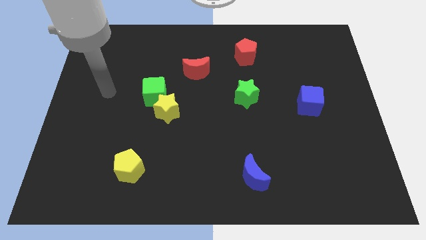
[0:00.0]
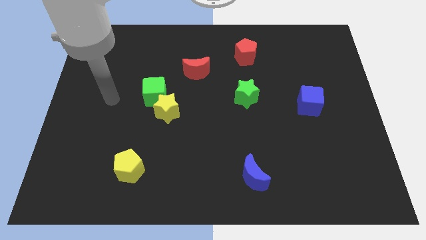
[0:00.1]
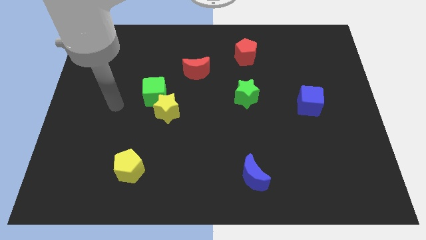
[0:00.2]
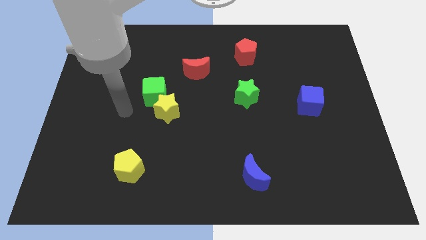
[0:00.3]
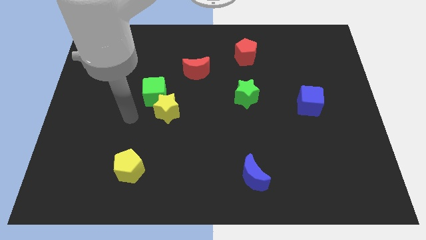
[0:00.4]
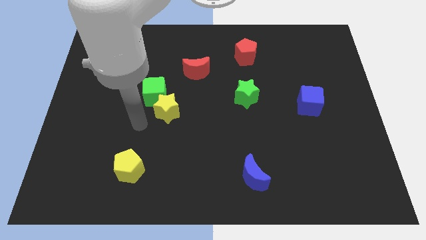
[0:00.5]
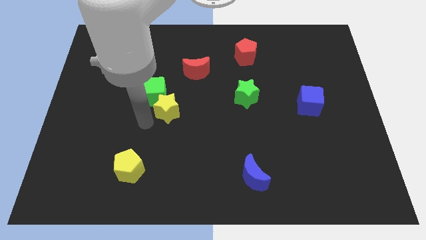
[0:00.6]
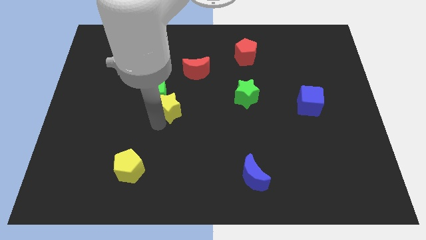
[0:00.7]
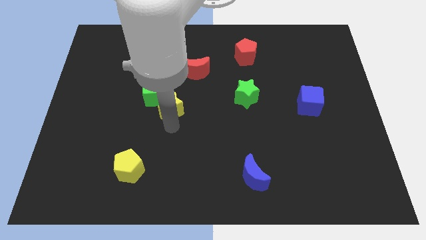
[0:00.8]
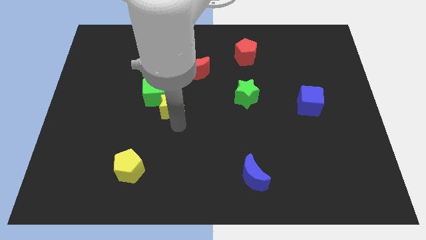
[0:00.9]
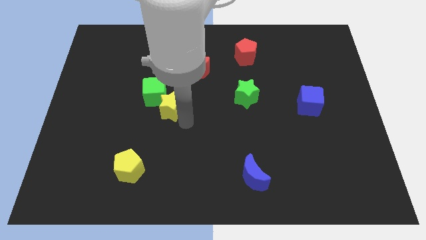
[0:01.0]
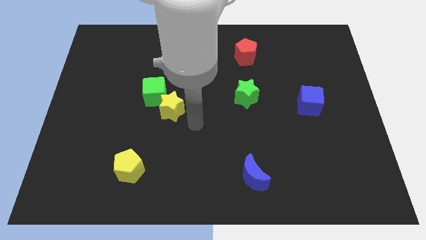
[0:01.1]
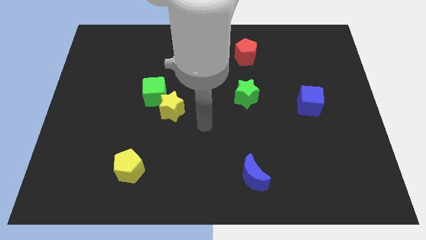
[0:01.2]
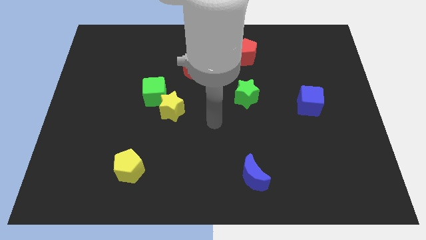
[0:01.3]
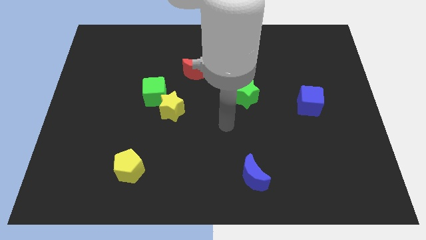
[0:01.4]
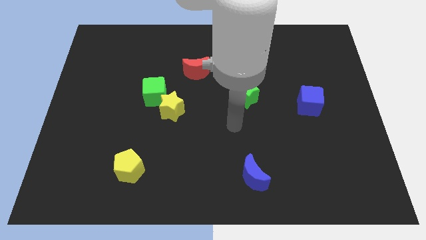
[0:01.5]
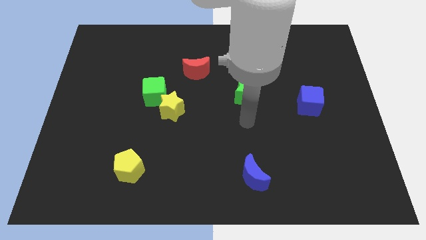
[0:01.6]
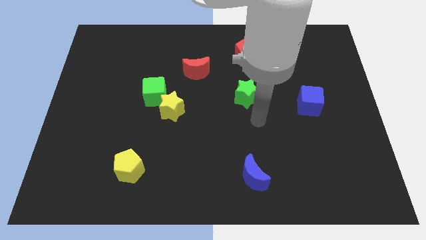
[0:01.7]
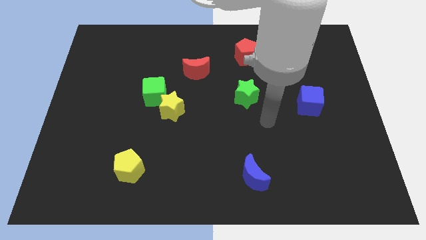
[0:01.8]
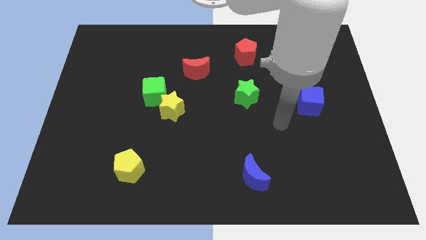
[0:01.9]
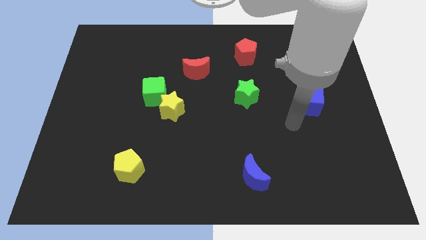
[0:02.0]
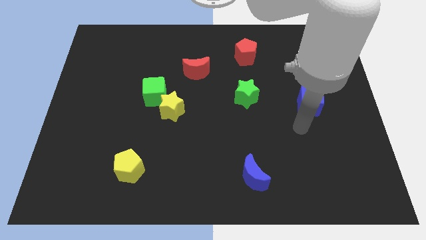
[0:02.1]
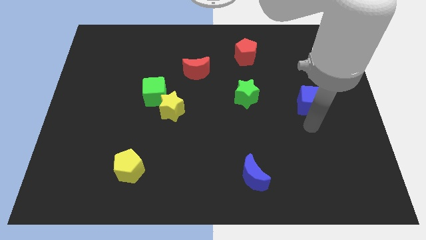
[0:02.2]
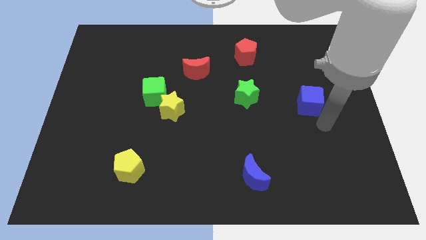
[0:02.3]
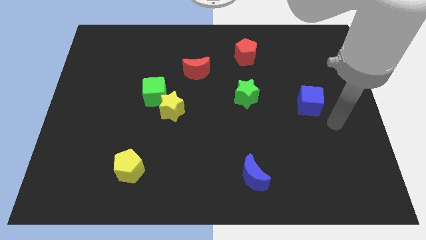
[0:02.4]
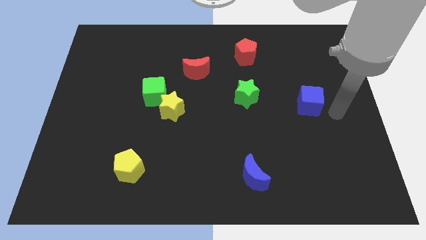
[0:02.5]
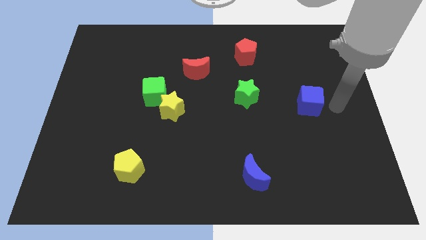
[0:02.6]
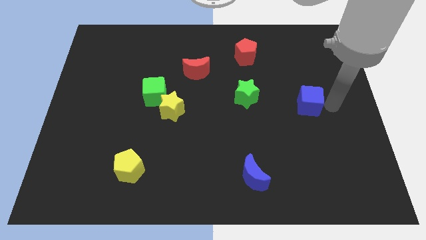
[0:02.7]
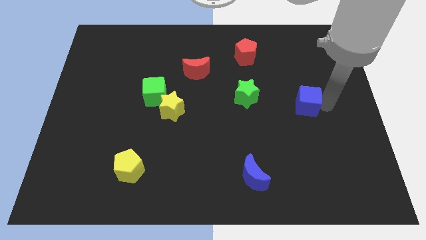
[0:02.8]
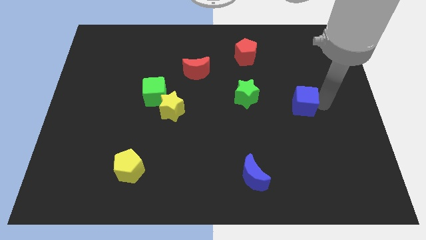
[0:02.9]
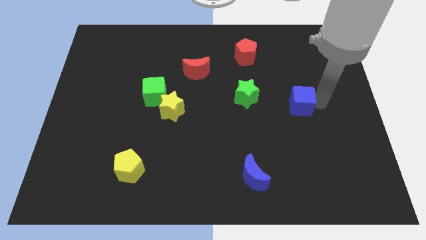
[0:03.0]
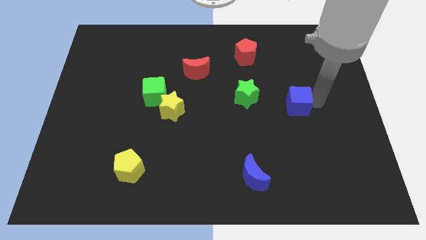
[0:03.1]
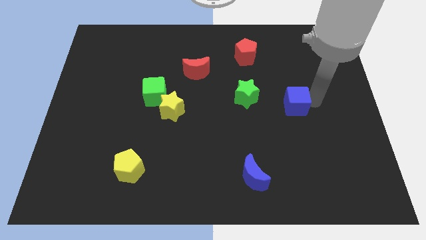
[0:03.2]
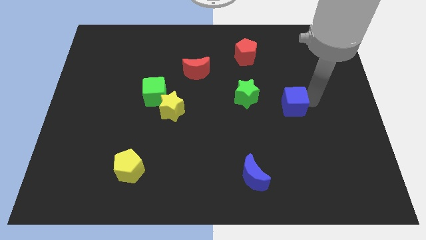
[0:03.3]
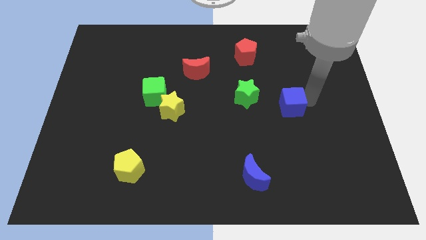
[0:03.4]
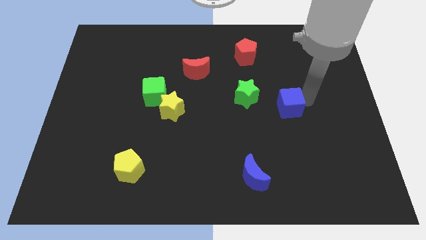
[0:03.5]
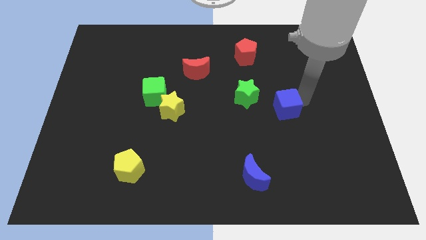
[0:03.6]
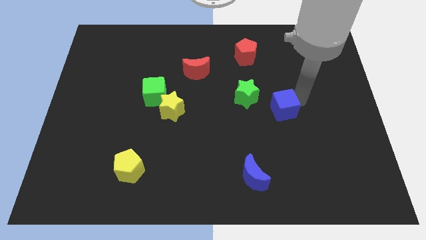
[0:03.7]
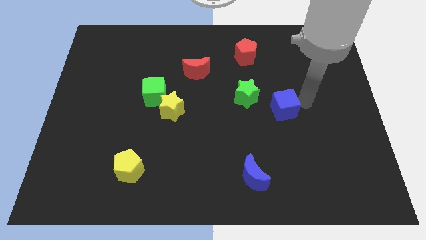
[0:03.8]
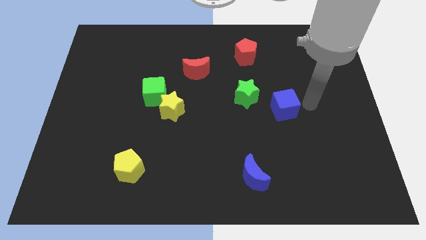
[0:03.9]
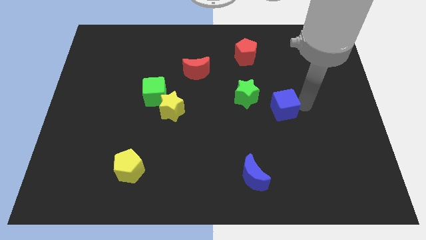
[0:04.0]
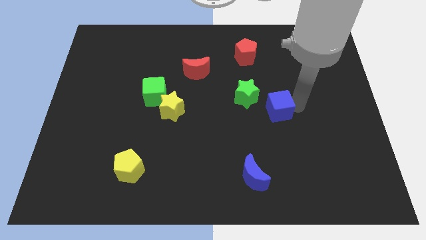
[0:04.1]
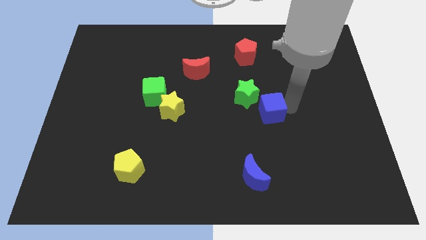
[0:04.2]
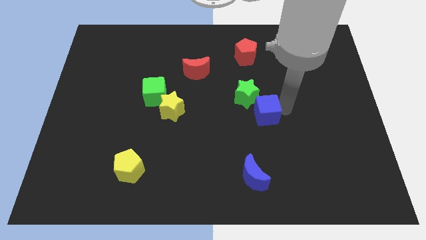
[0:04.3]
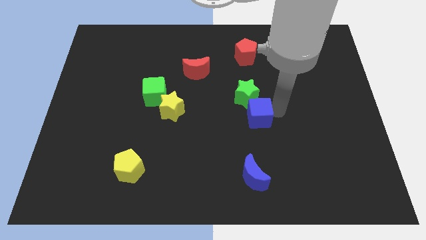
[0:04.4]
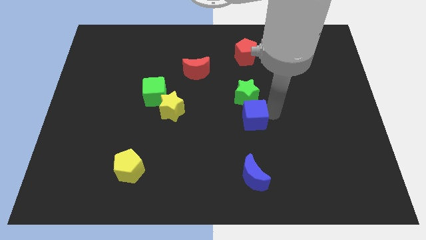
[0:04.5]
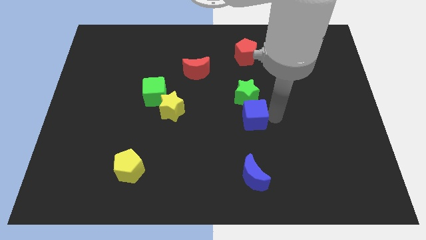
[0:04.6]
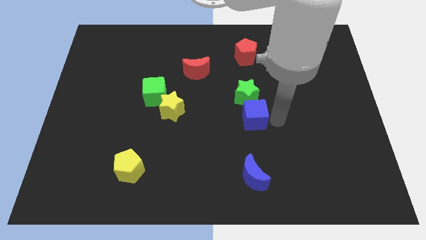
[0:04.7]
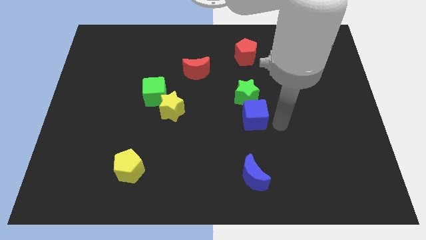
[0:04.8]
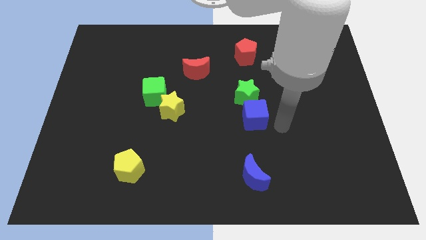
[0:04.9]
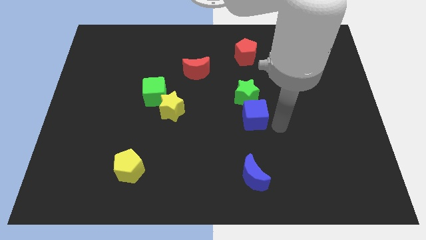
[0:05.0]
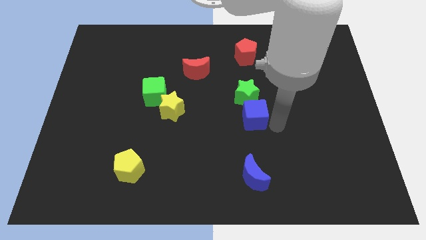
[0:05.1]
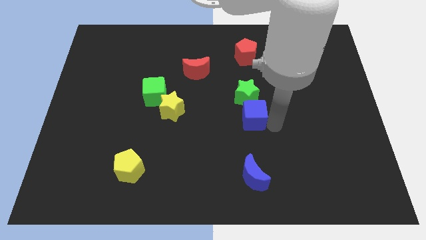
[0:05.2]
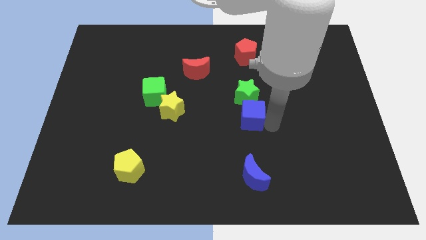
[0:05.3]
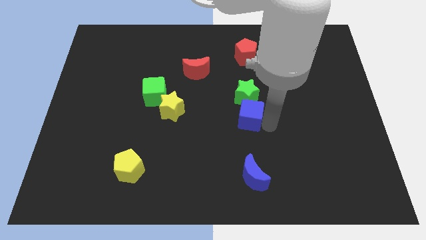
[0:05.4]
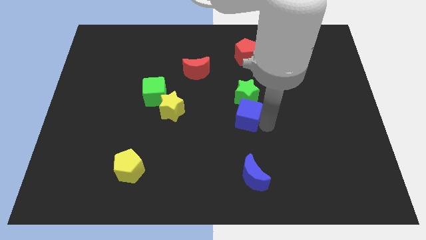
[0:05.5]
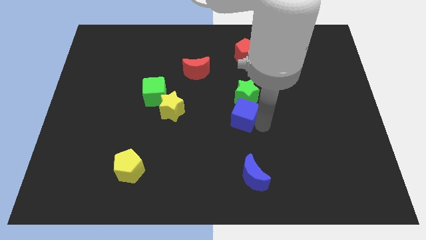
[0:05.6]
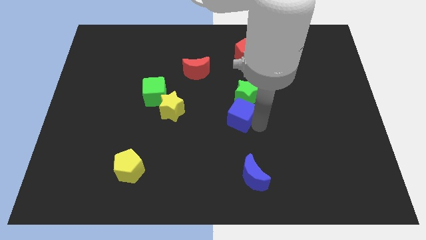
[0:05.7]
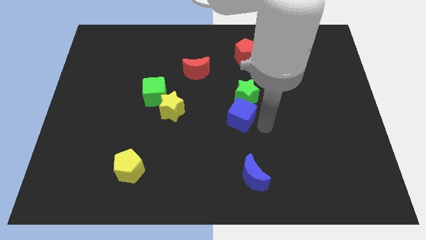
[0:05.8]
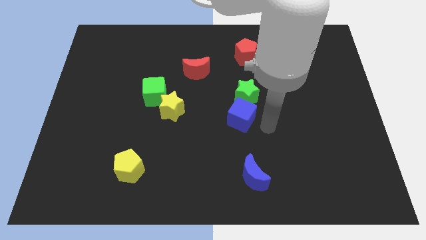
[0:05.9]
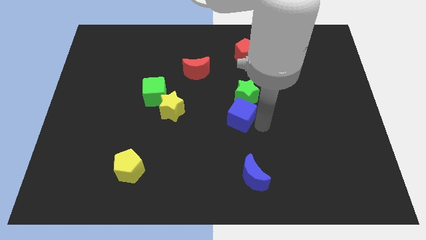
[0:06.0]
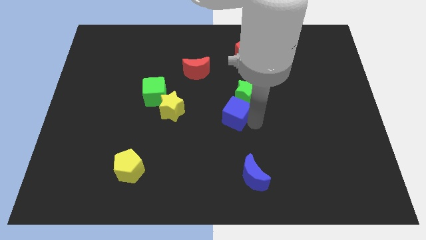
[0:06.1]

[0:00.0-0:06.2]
put the blue cube to the right side of the yellow star
